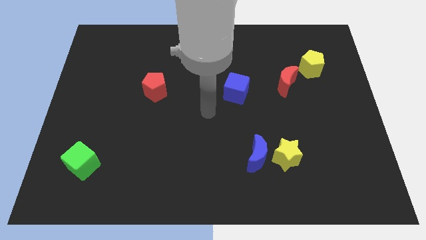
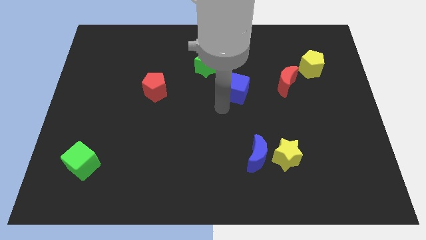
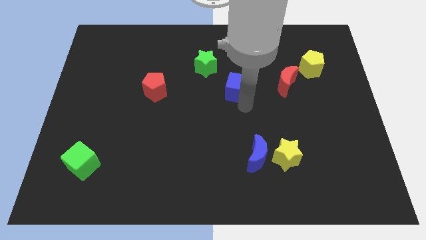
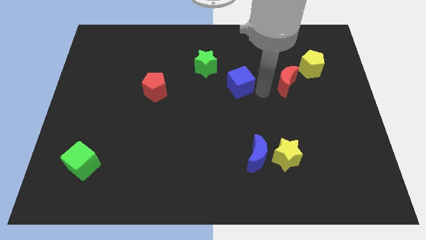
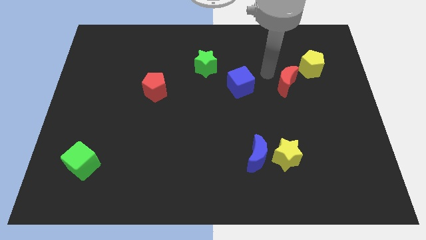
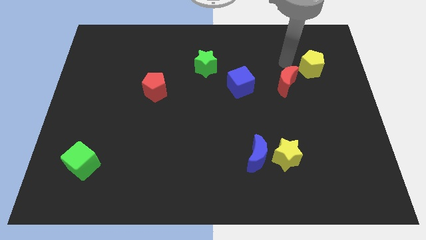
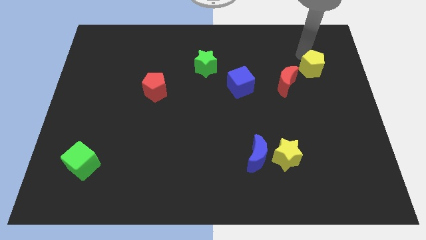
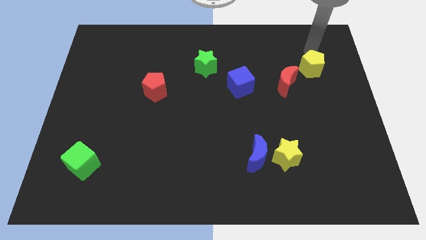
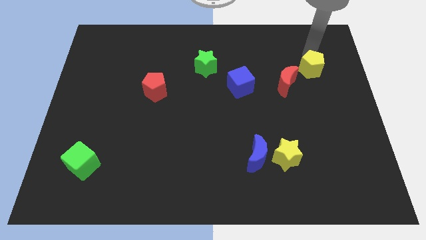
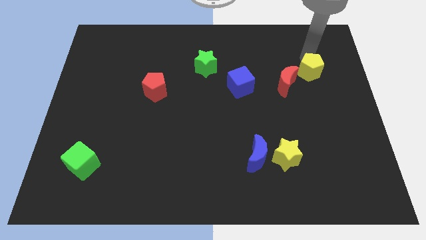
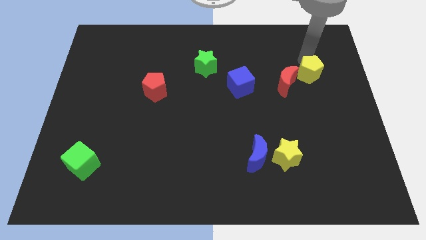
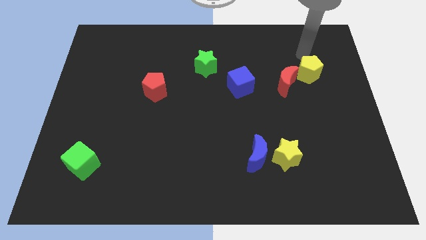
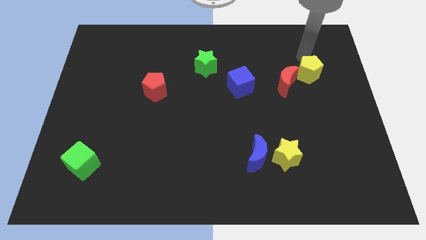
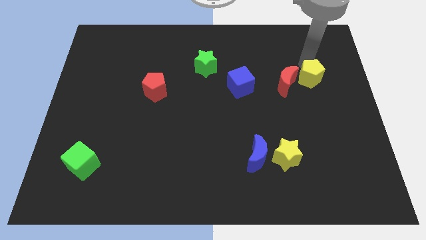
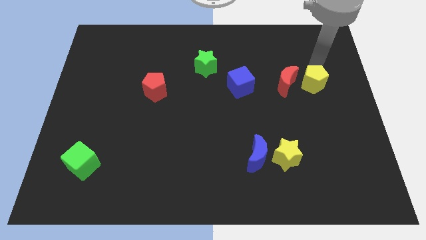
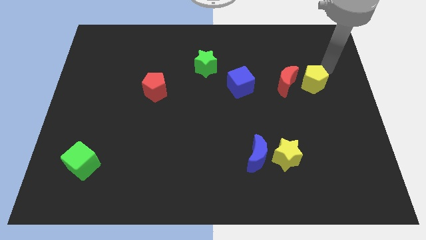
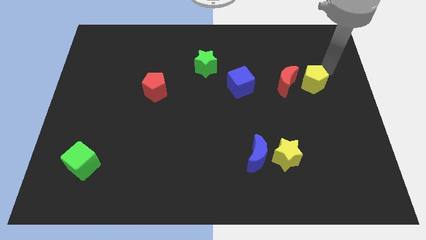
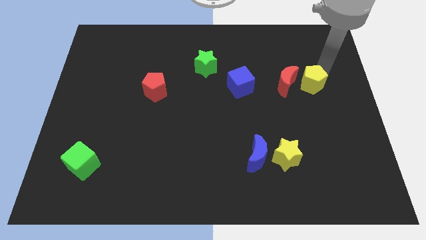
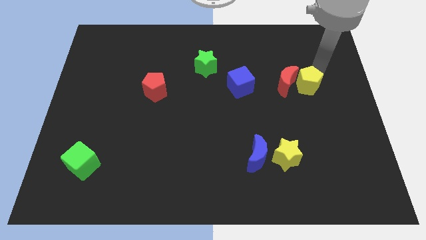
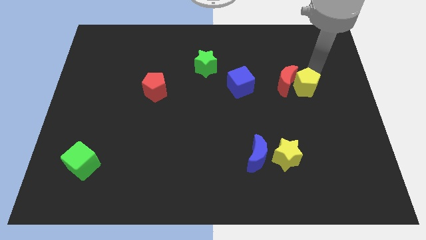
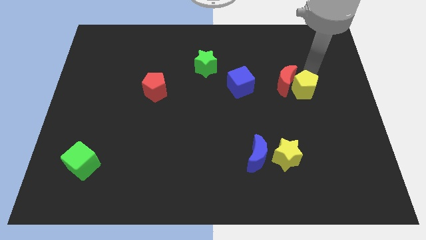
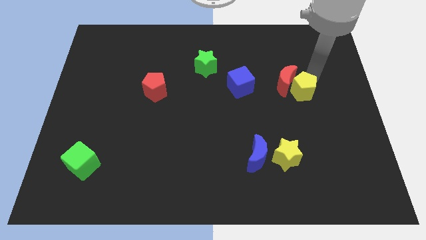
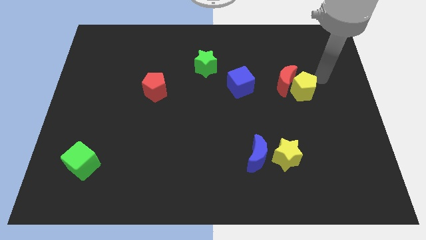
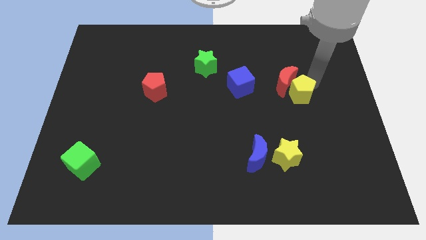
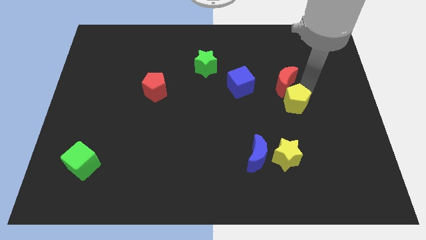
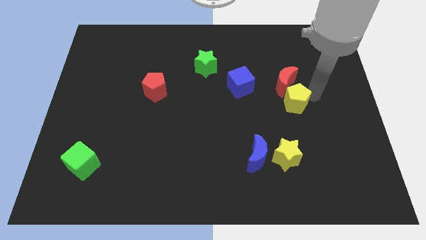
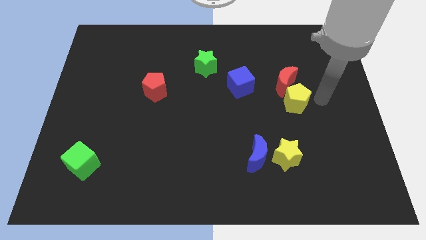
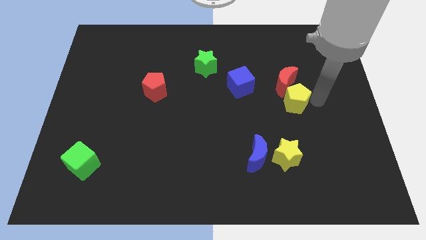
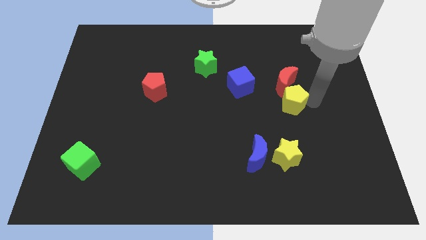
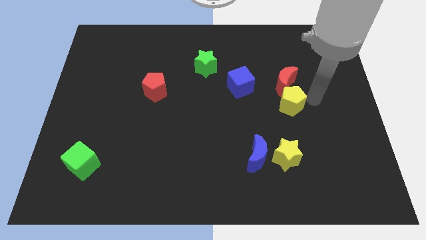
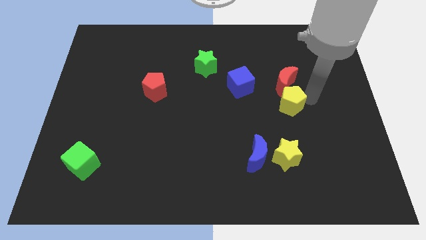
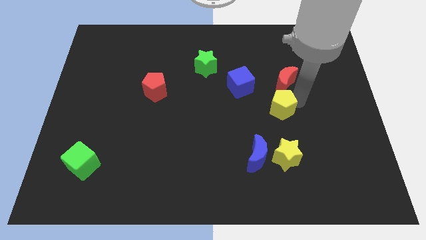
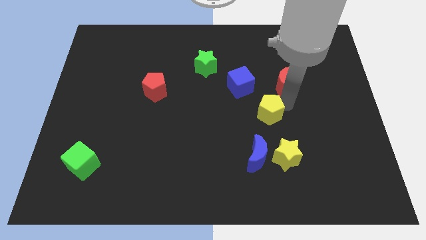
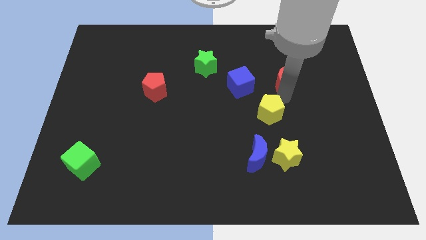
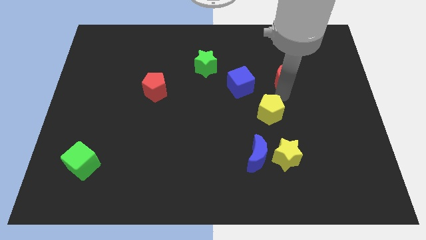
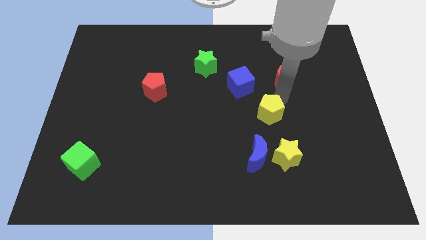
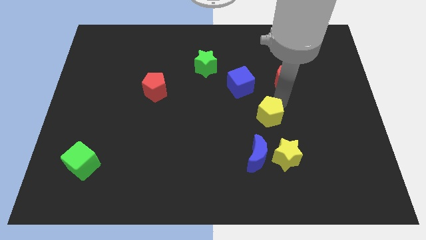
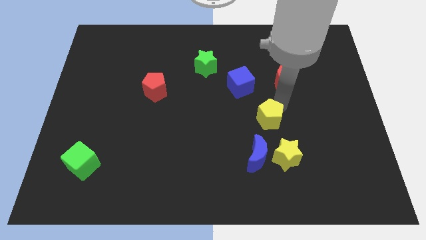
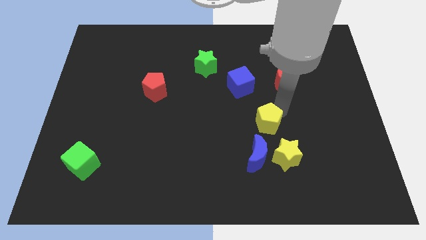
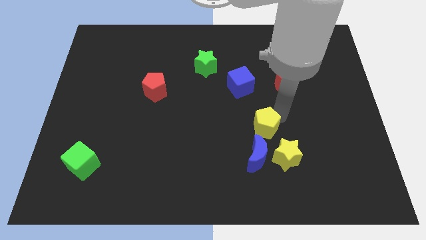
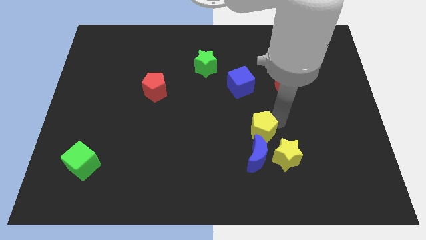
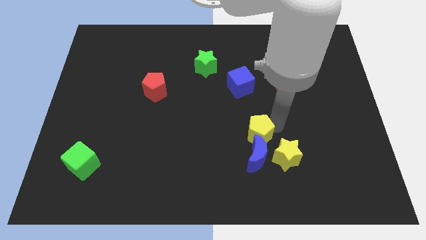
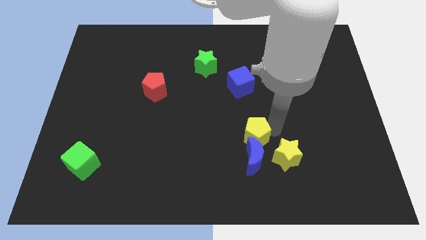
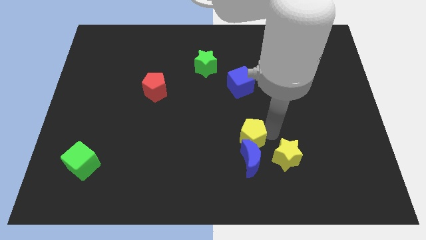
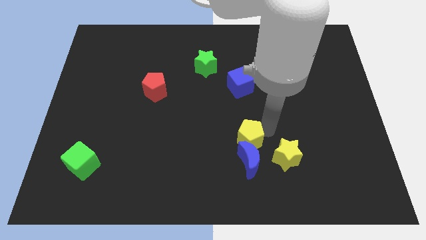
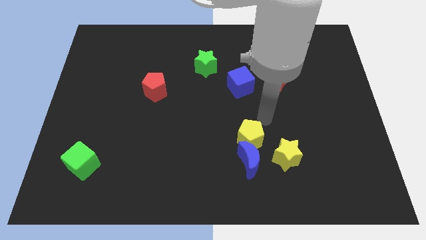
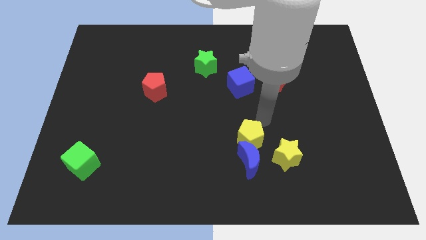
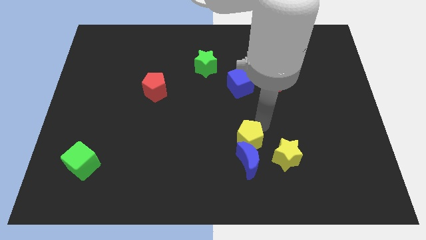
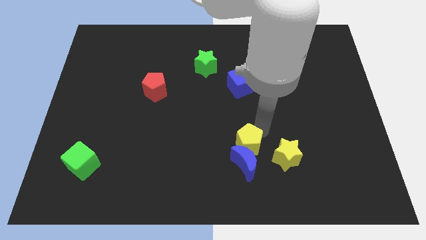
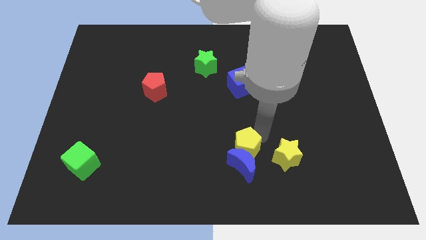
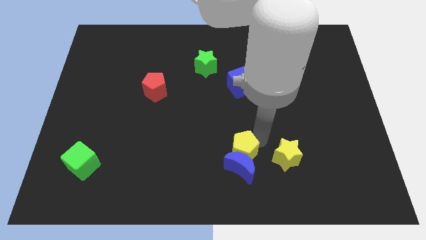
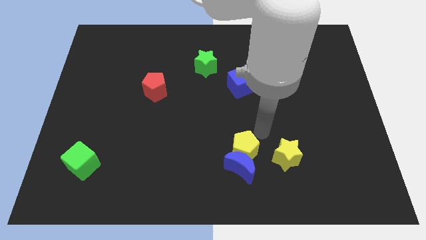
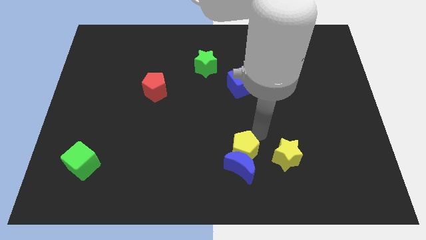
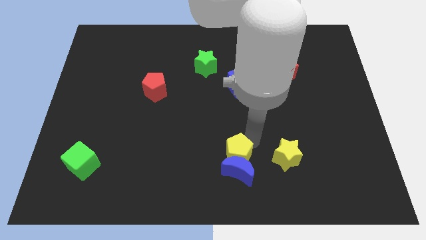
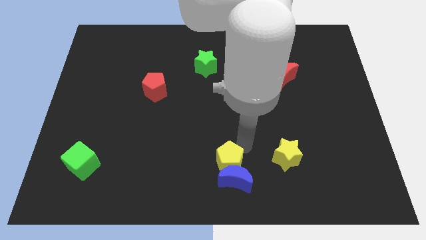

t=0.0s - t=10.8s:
put the yellow pentagon to the bottom side

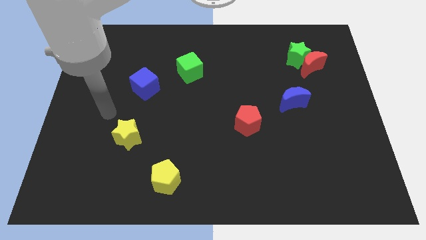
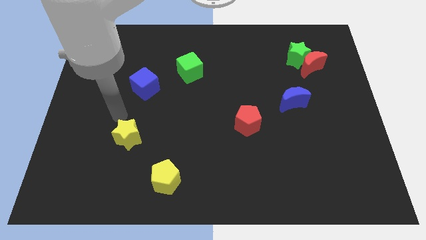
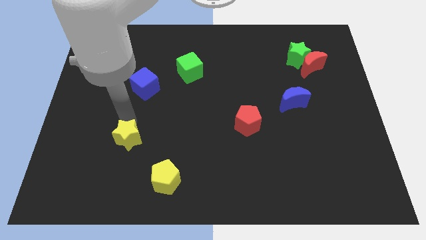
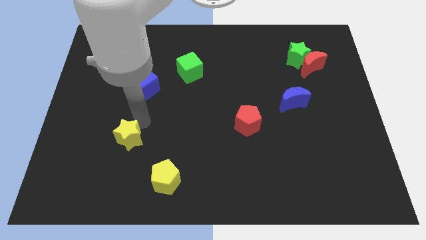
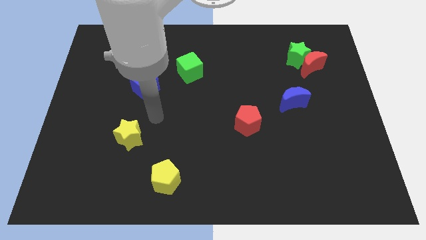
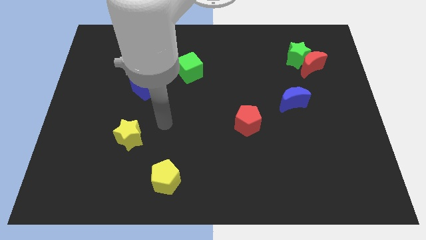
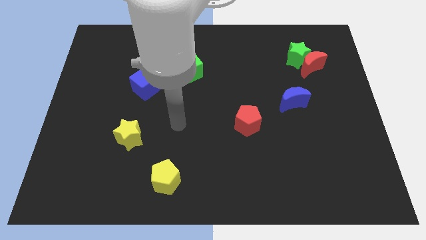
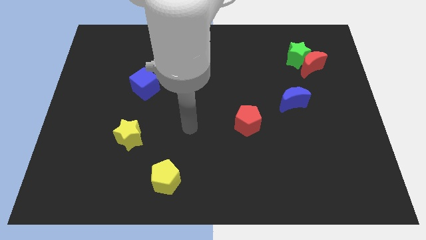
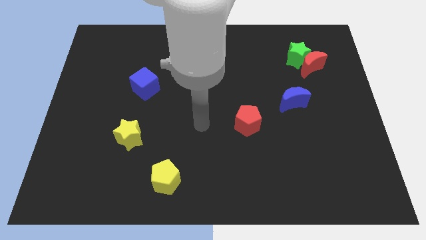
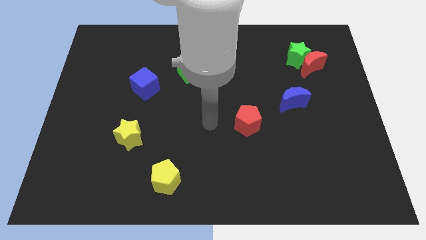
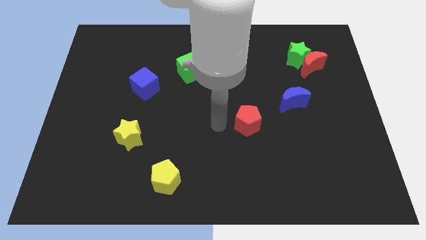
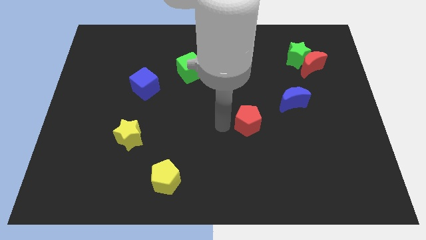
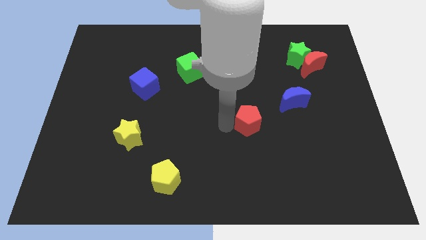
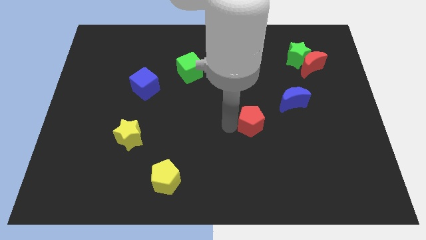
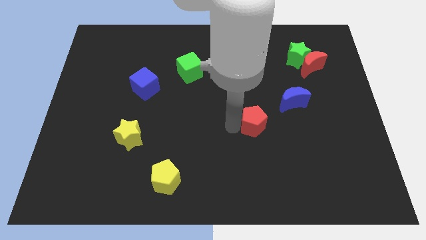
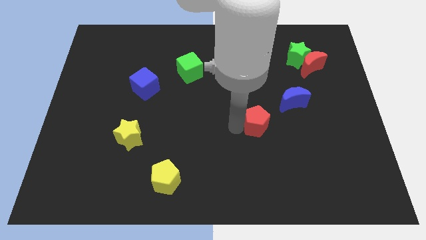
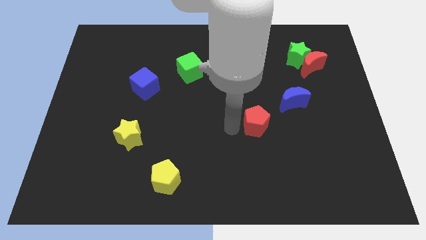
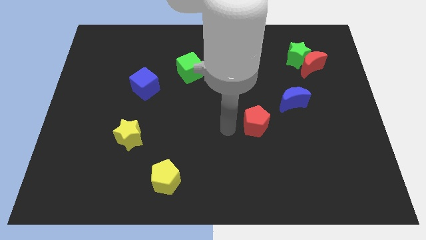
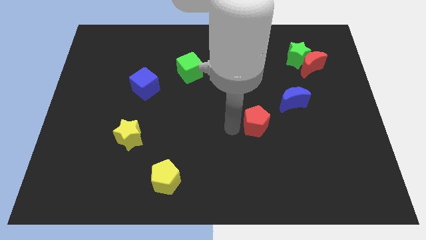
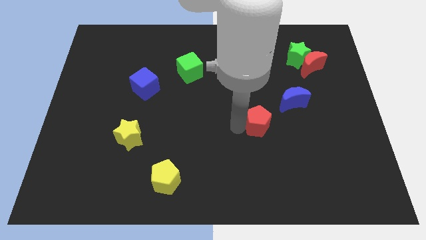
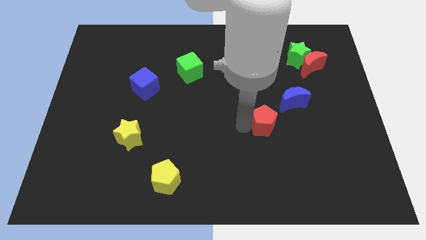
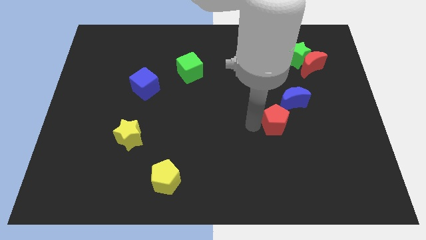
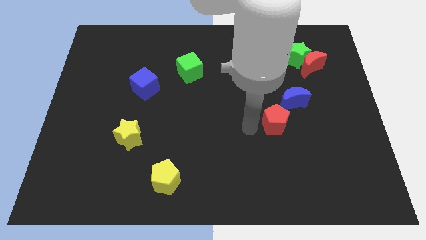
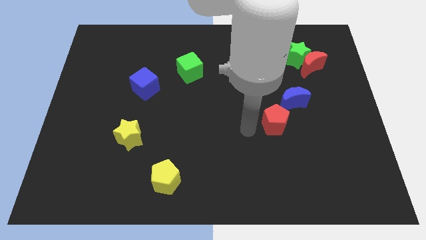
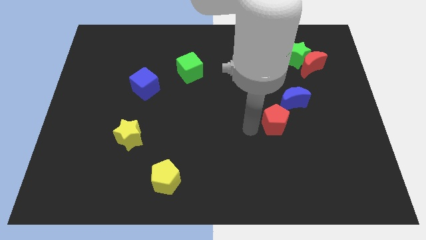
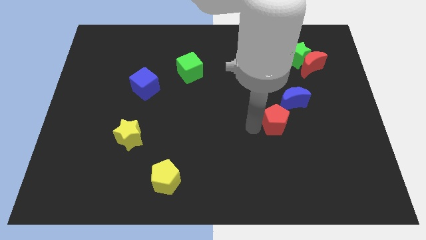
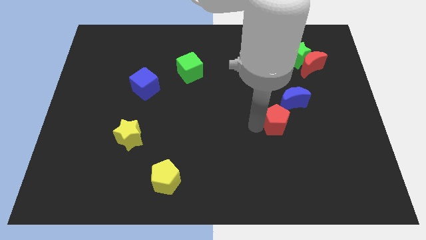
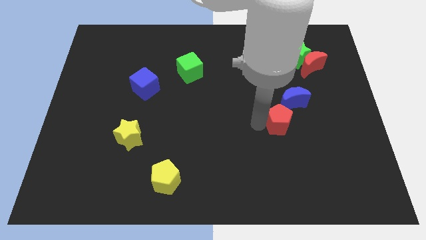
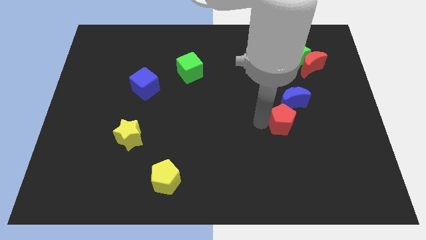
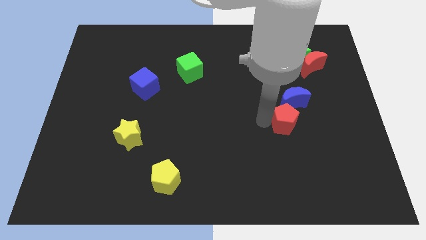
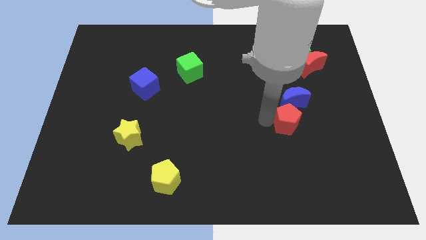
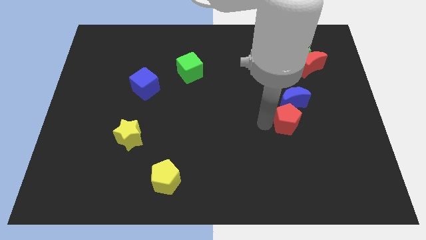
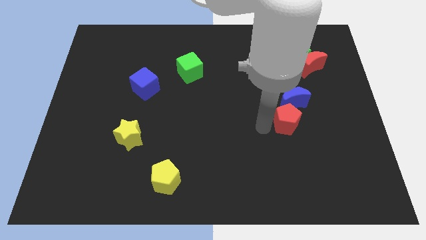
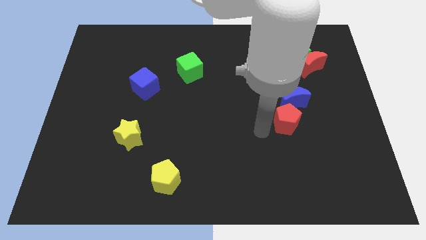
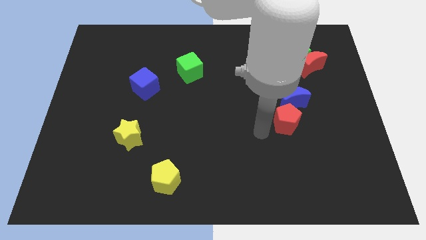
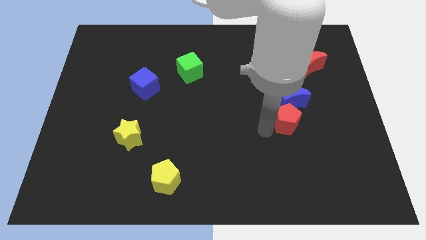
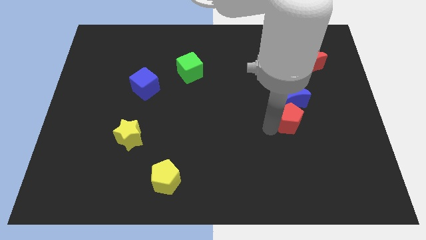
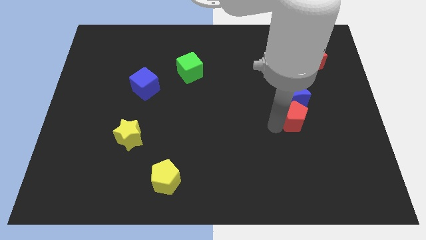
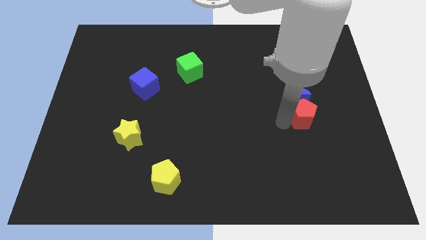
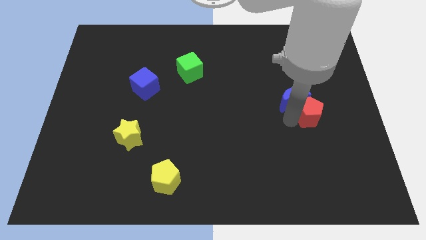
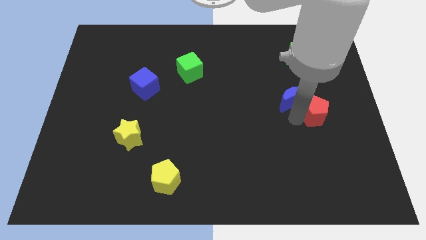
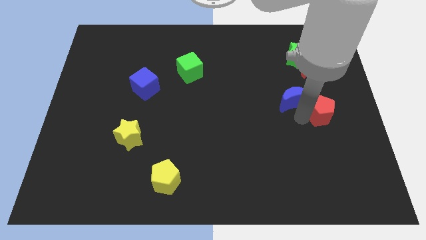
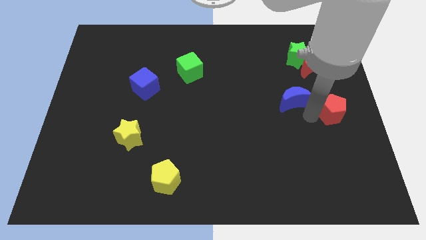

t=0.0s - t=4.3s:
move the red pentagon to the right side
